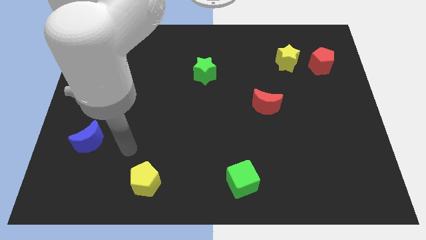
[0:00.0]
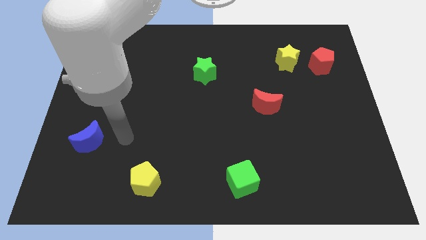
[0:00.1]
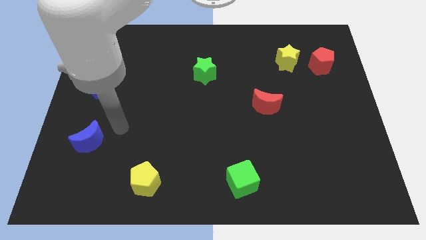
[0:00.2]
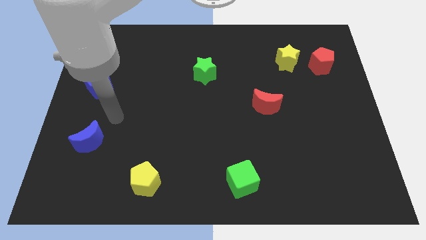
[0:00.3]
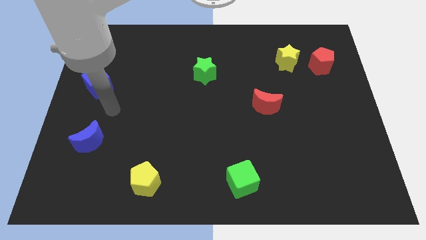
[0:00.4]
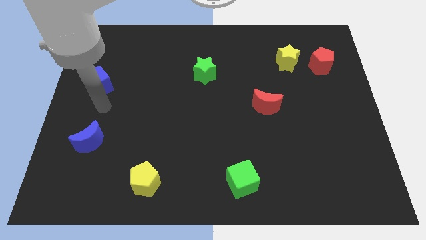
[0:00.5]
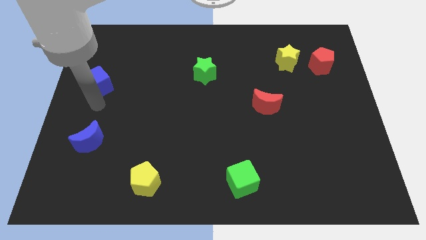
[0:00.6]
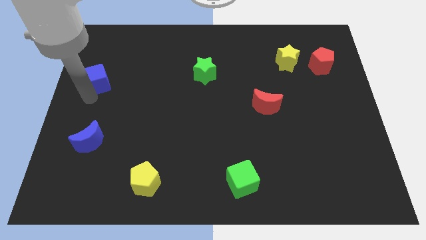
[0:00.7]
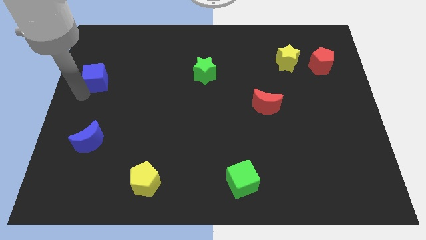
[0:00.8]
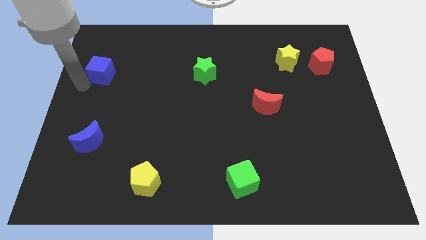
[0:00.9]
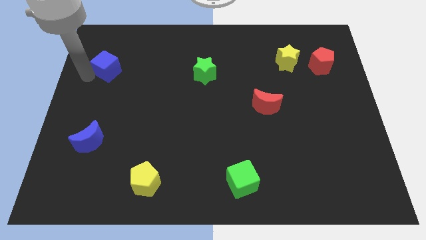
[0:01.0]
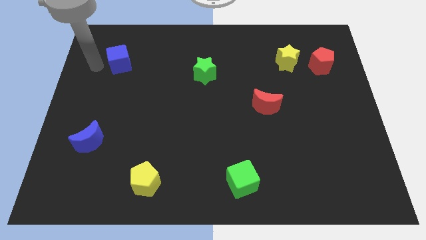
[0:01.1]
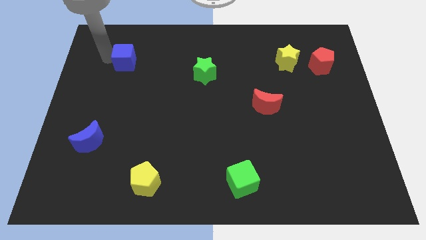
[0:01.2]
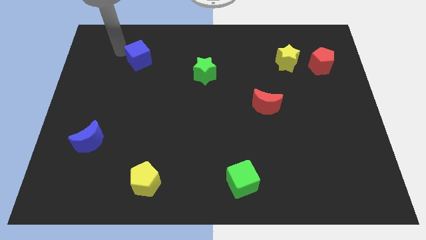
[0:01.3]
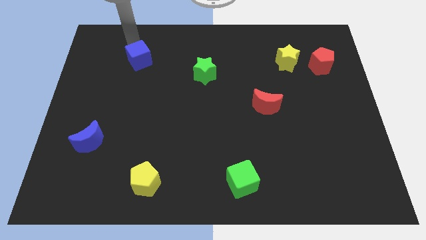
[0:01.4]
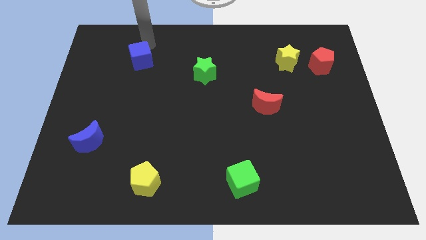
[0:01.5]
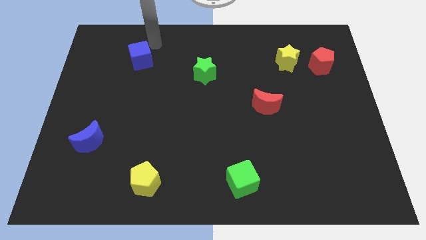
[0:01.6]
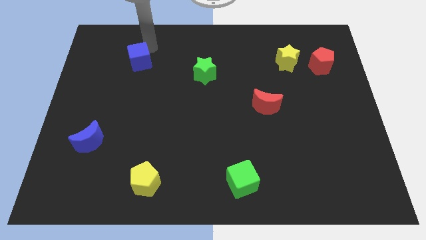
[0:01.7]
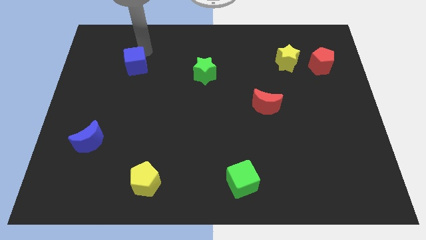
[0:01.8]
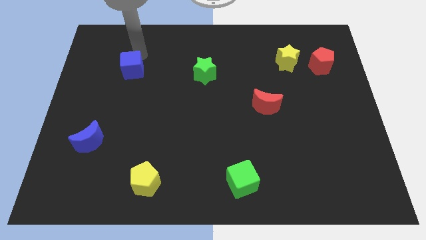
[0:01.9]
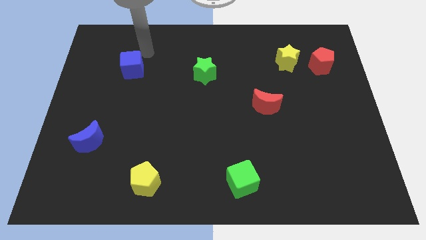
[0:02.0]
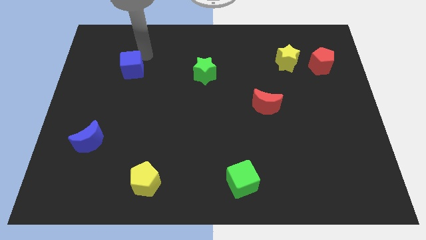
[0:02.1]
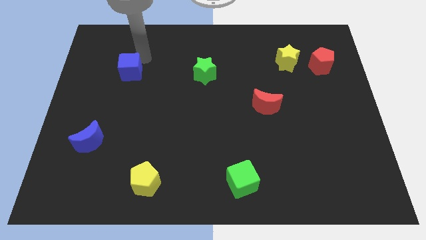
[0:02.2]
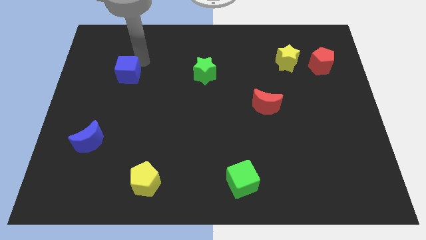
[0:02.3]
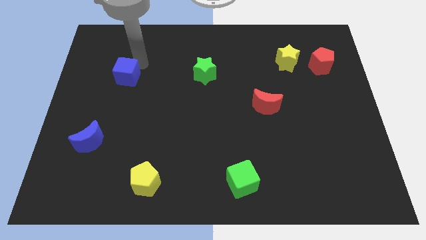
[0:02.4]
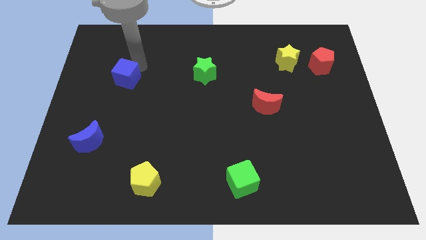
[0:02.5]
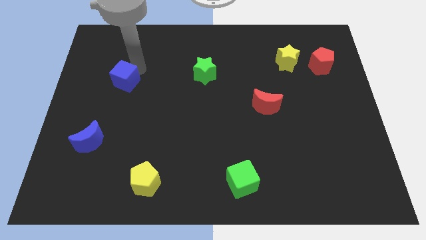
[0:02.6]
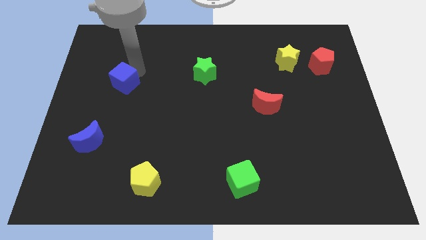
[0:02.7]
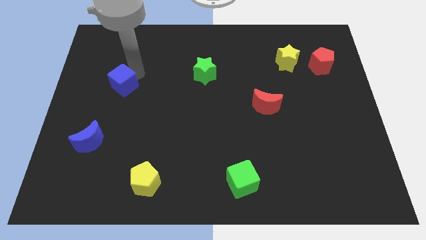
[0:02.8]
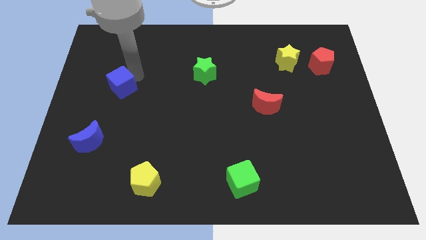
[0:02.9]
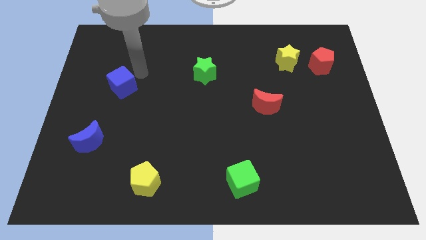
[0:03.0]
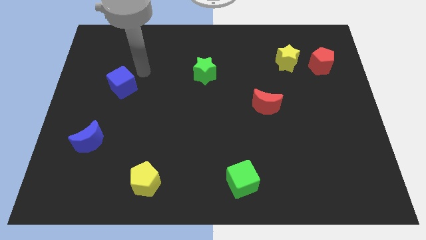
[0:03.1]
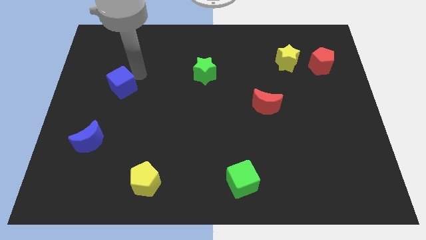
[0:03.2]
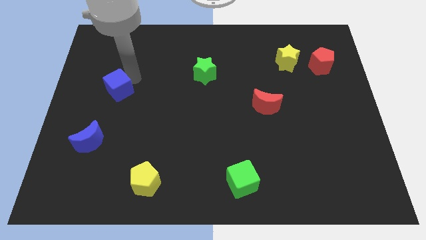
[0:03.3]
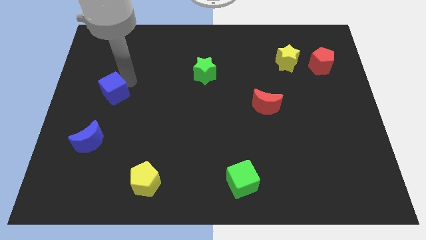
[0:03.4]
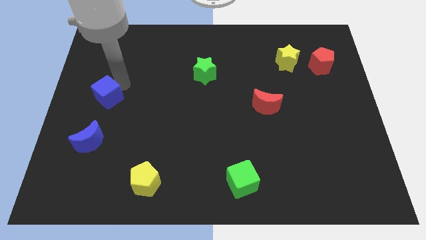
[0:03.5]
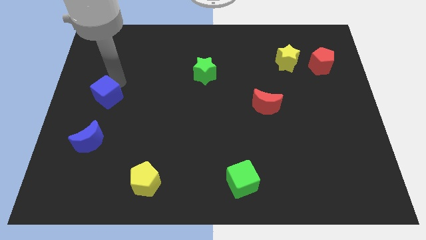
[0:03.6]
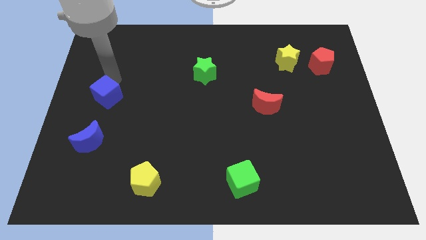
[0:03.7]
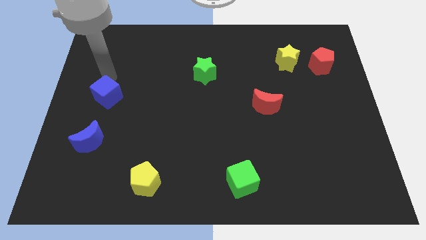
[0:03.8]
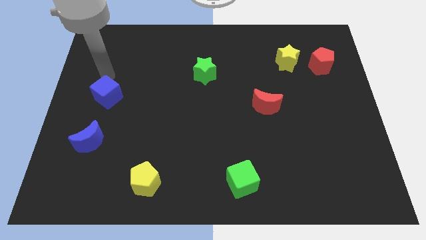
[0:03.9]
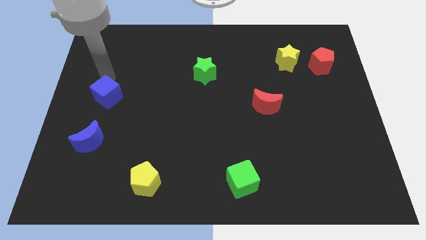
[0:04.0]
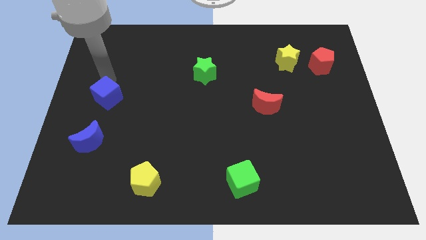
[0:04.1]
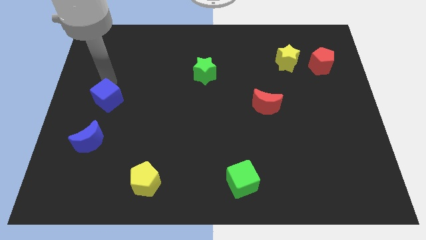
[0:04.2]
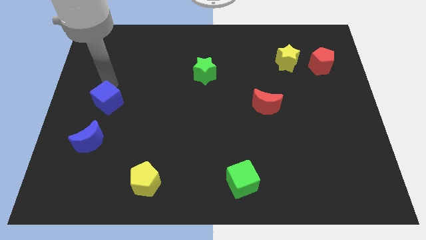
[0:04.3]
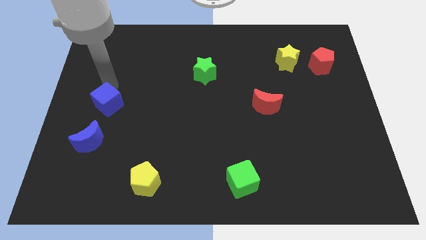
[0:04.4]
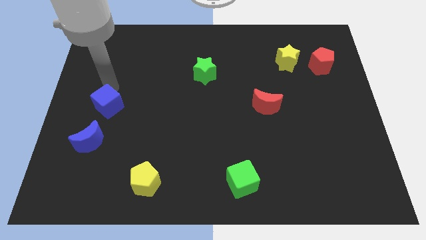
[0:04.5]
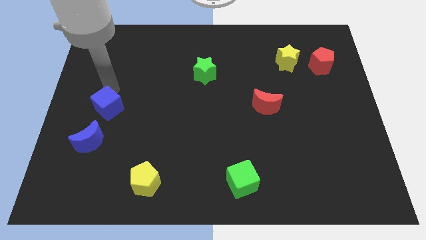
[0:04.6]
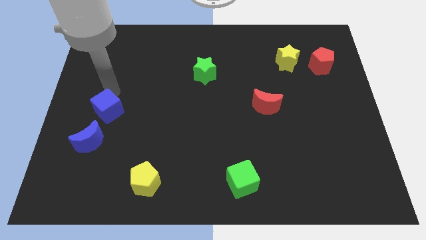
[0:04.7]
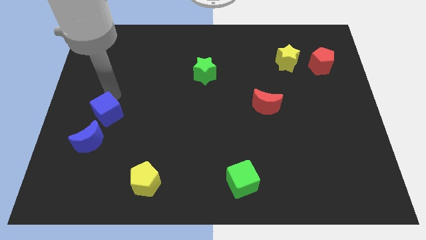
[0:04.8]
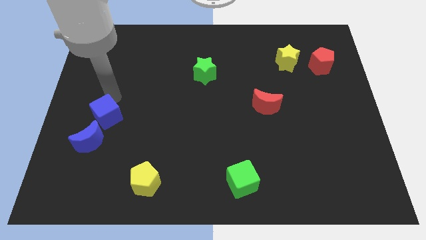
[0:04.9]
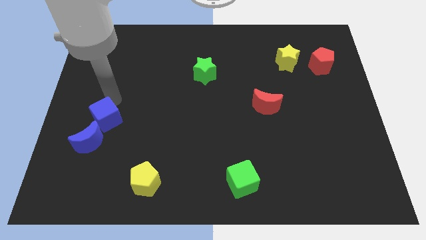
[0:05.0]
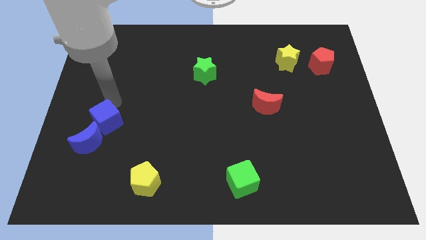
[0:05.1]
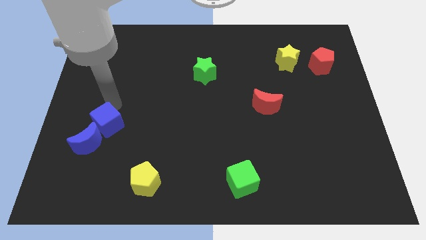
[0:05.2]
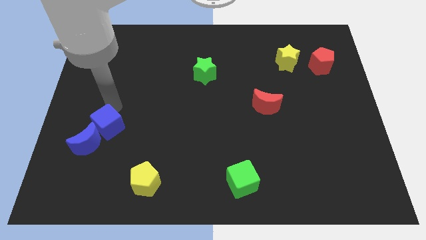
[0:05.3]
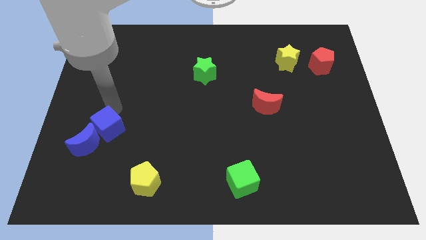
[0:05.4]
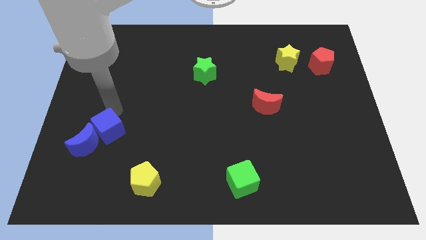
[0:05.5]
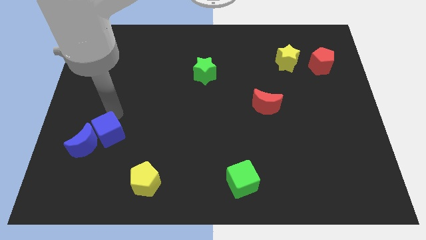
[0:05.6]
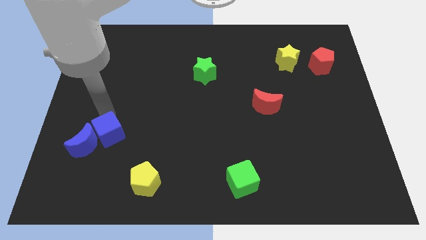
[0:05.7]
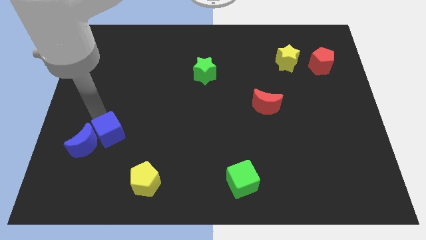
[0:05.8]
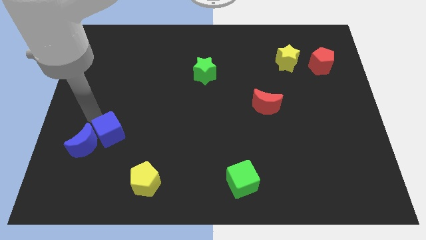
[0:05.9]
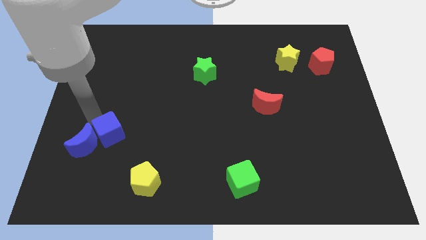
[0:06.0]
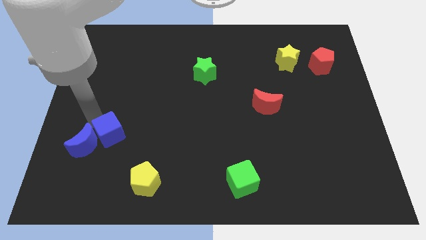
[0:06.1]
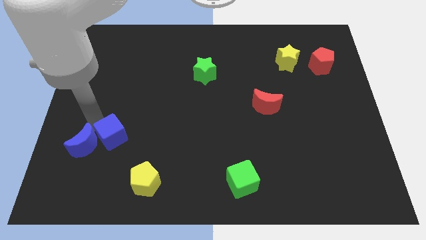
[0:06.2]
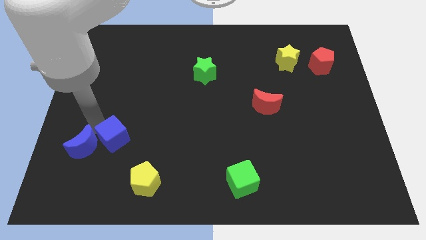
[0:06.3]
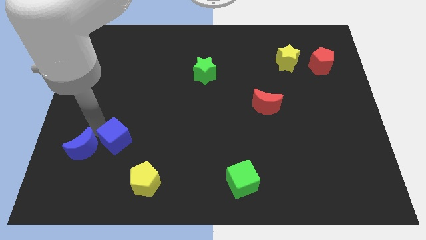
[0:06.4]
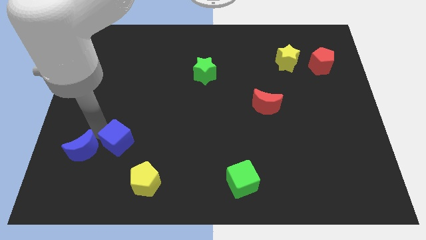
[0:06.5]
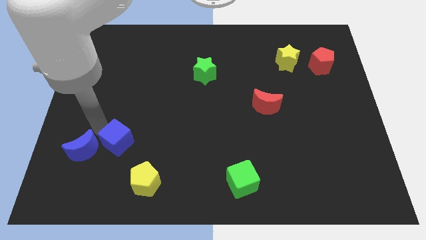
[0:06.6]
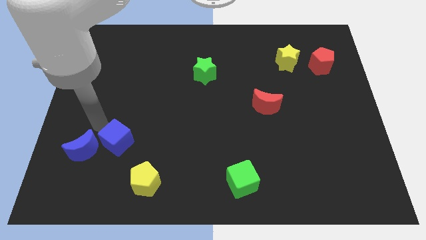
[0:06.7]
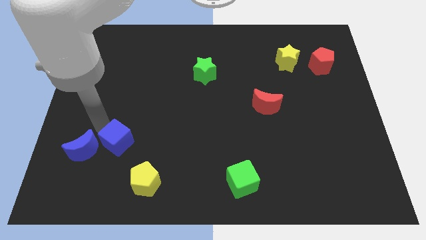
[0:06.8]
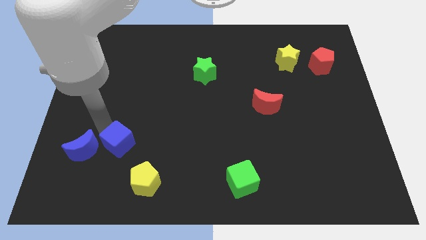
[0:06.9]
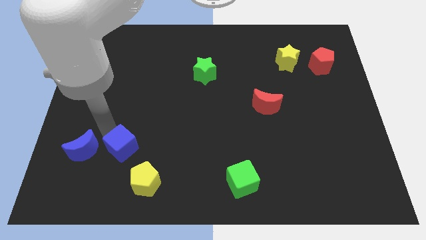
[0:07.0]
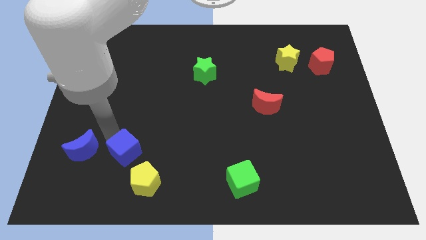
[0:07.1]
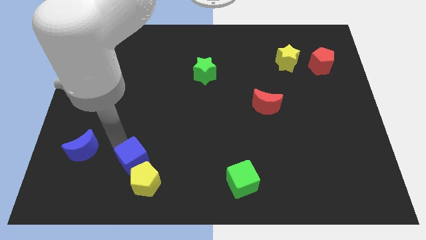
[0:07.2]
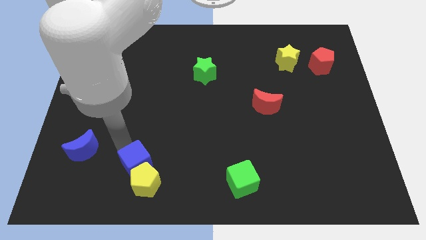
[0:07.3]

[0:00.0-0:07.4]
push the blue cube towards the yellow pentagon

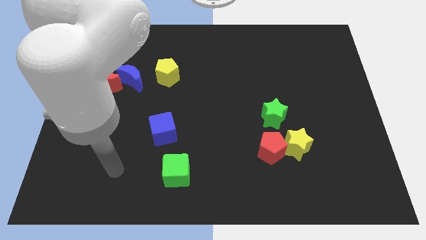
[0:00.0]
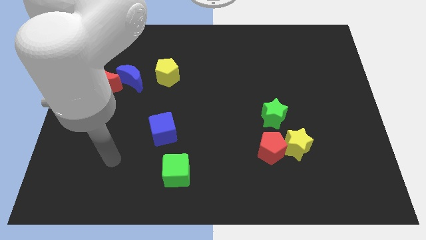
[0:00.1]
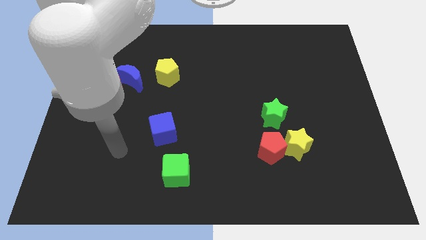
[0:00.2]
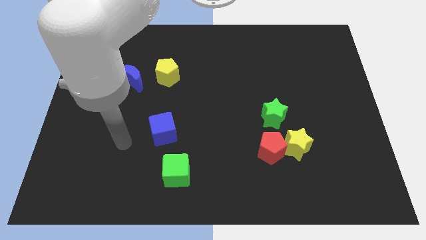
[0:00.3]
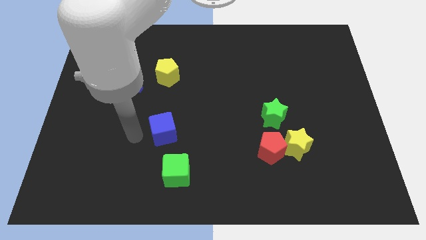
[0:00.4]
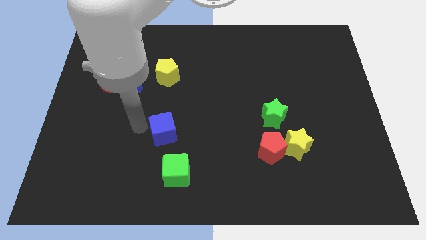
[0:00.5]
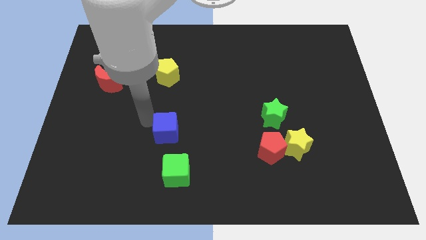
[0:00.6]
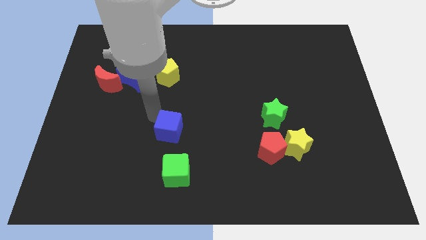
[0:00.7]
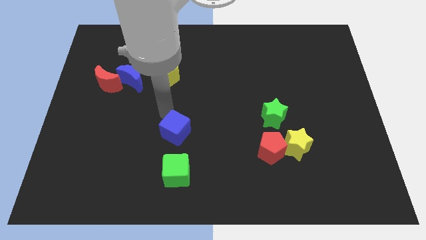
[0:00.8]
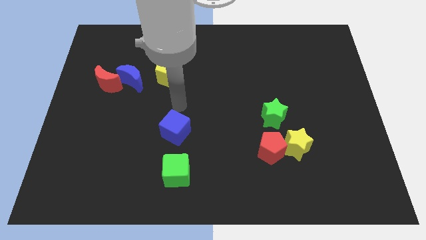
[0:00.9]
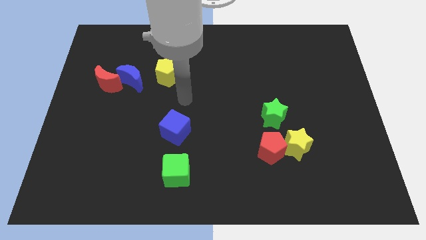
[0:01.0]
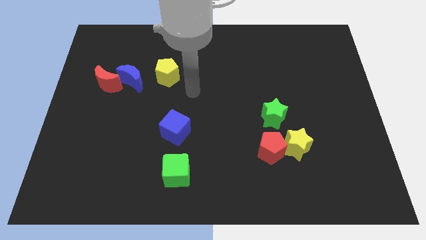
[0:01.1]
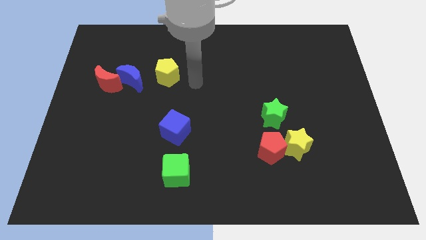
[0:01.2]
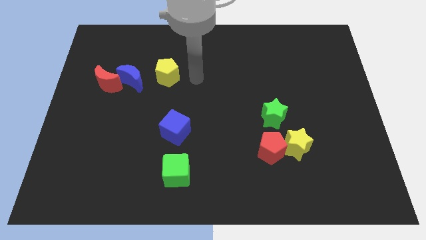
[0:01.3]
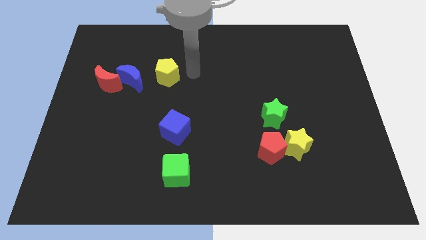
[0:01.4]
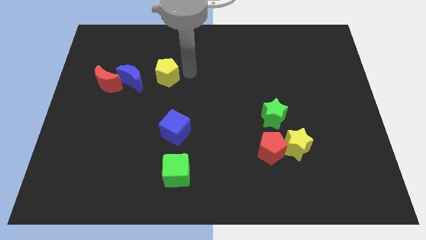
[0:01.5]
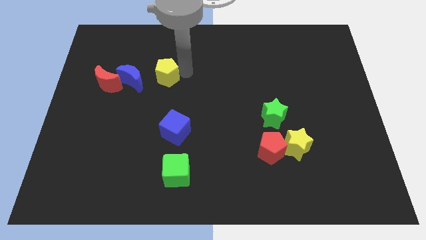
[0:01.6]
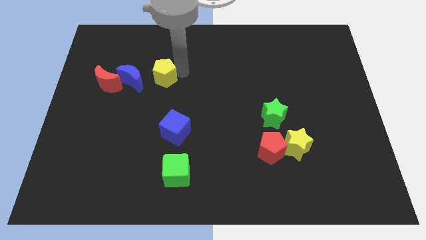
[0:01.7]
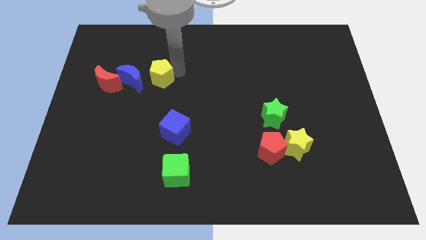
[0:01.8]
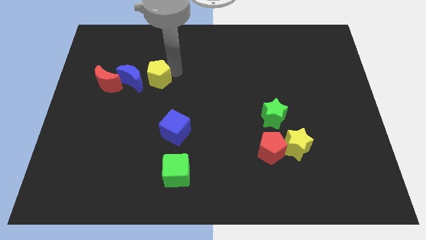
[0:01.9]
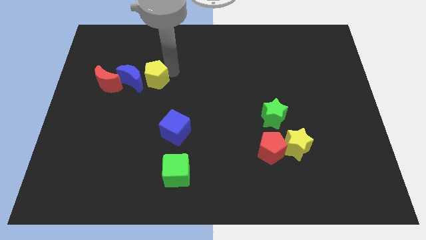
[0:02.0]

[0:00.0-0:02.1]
move the yellow pentagon towards the blue moon
